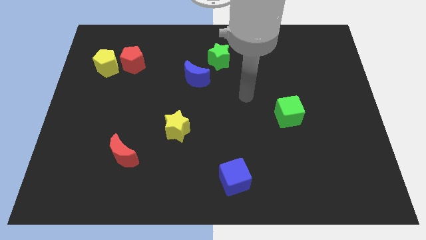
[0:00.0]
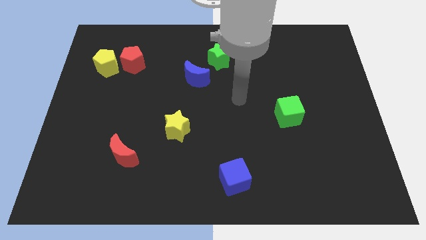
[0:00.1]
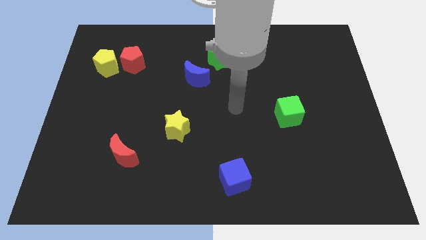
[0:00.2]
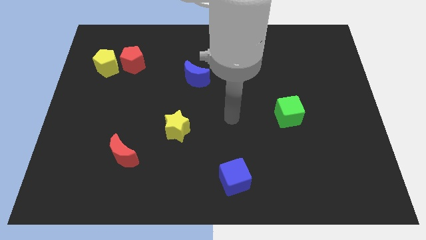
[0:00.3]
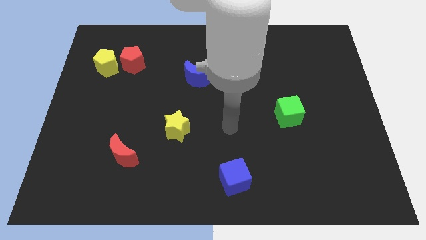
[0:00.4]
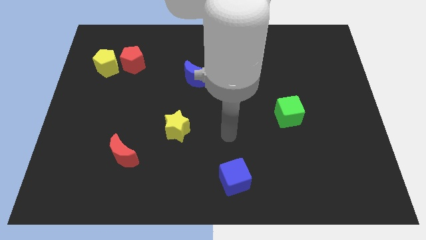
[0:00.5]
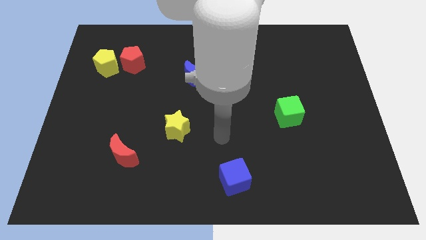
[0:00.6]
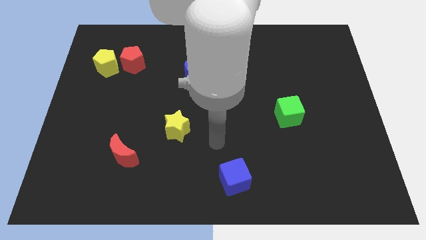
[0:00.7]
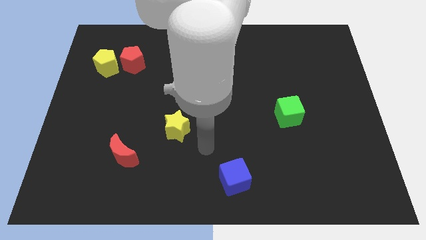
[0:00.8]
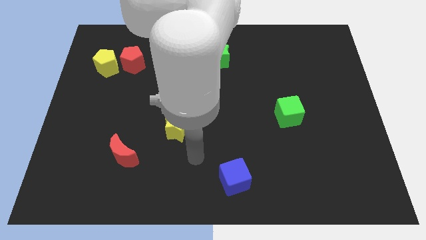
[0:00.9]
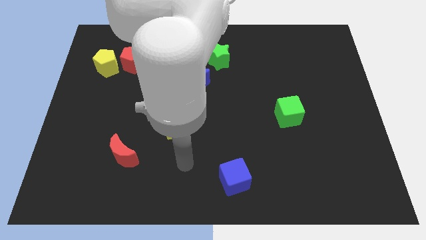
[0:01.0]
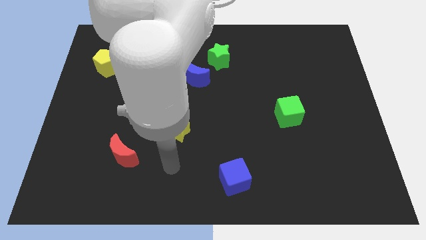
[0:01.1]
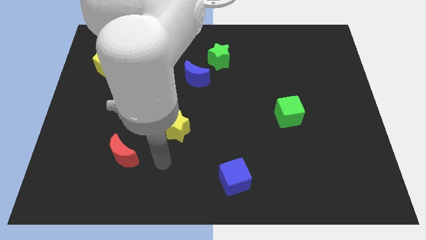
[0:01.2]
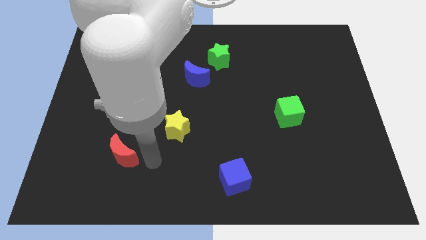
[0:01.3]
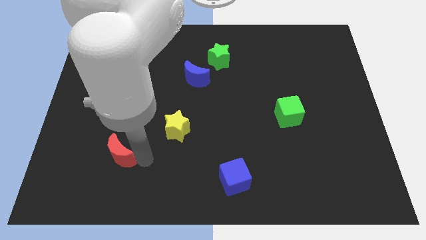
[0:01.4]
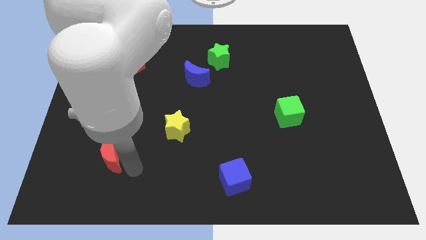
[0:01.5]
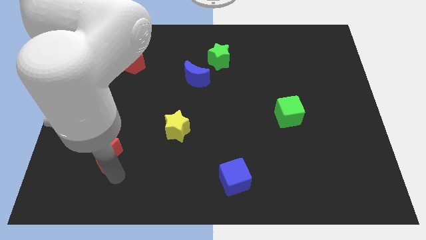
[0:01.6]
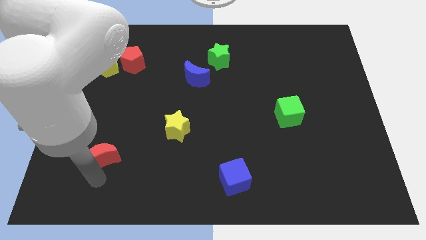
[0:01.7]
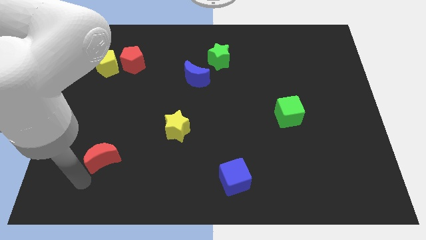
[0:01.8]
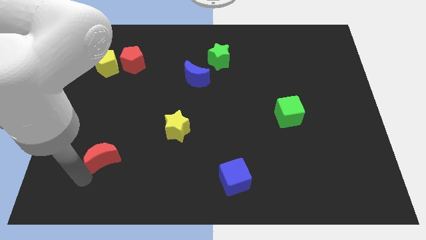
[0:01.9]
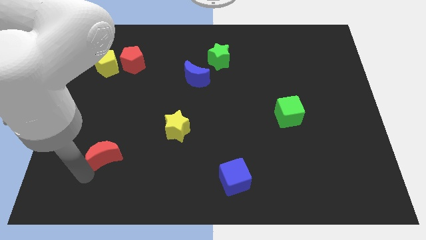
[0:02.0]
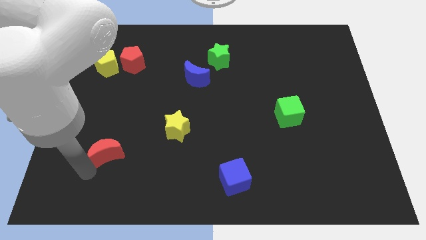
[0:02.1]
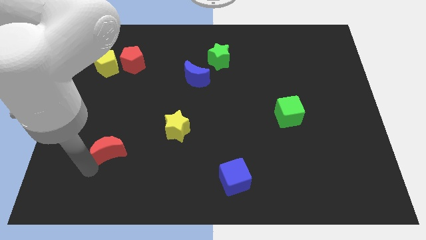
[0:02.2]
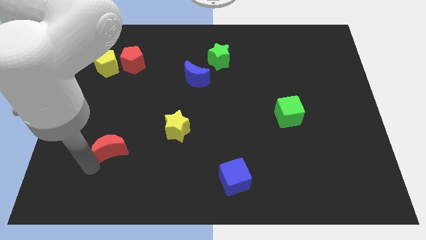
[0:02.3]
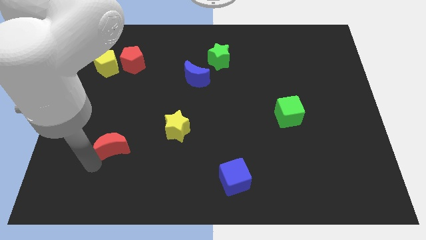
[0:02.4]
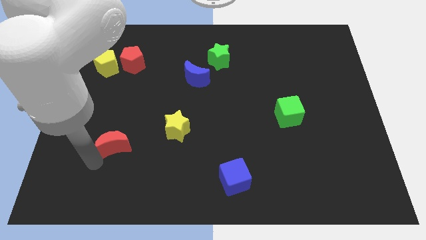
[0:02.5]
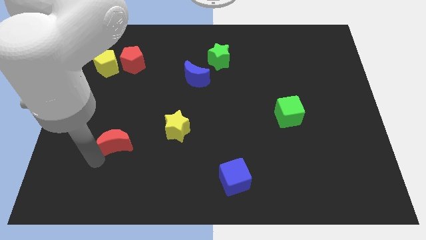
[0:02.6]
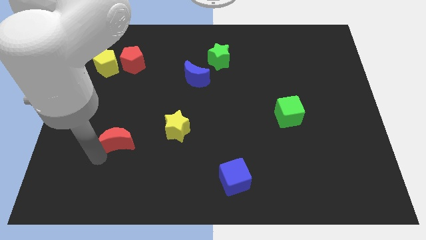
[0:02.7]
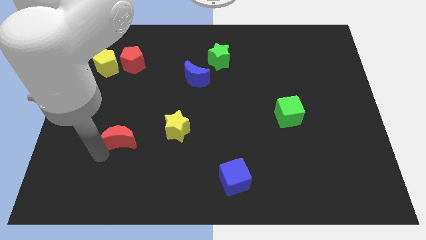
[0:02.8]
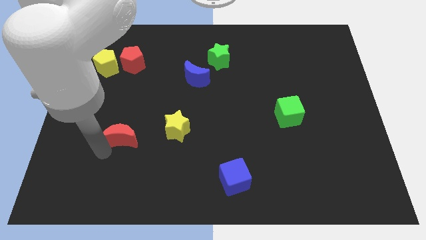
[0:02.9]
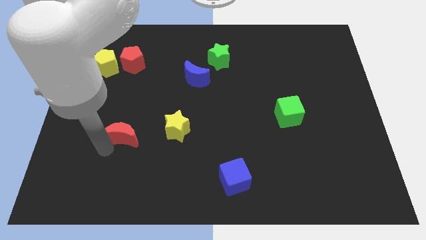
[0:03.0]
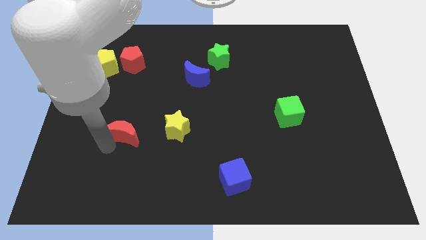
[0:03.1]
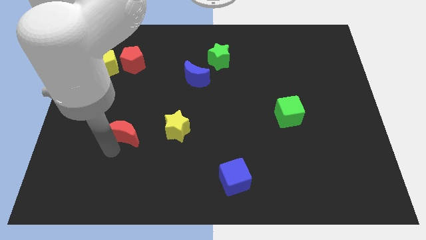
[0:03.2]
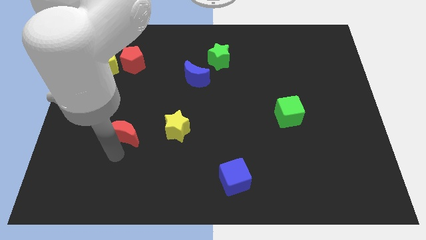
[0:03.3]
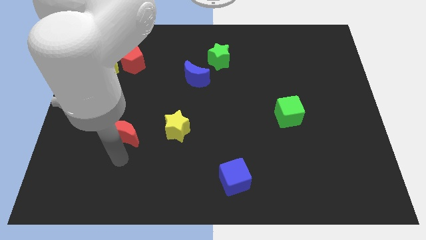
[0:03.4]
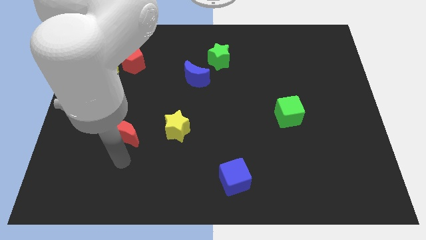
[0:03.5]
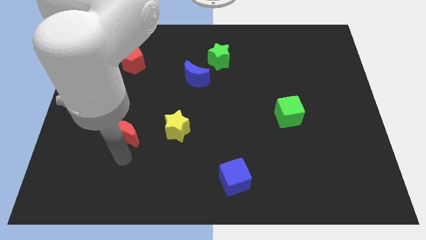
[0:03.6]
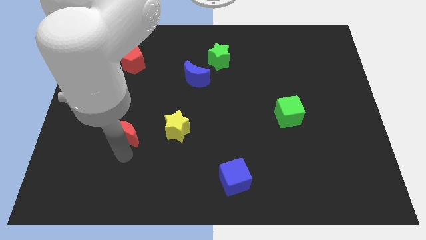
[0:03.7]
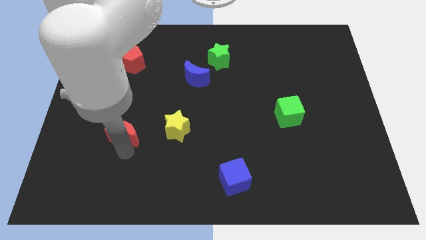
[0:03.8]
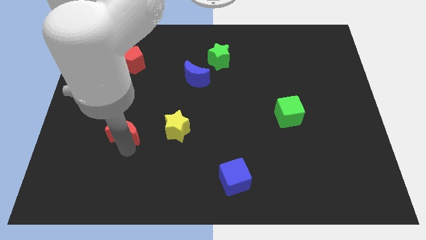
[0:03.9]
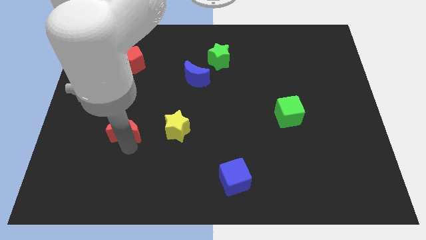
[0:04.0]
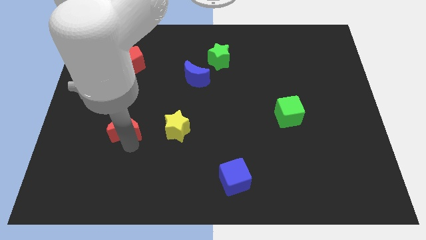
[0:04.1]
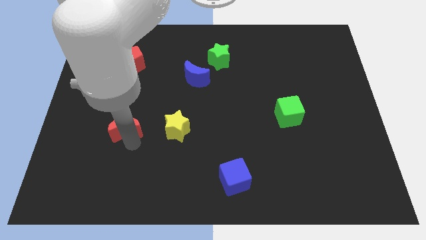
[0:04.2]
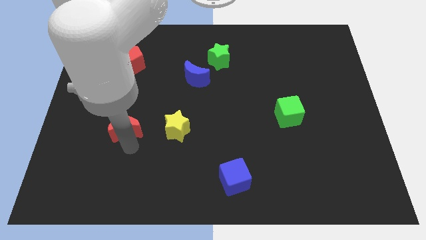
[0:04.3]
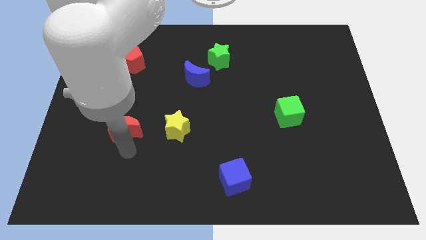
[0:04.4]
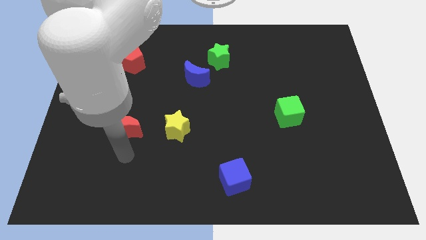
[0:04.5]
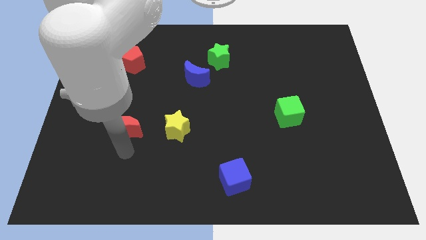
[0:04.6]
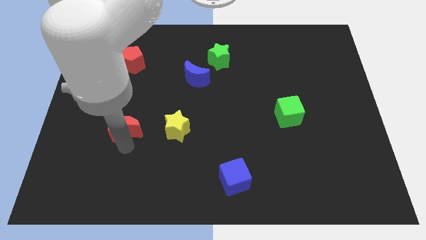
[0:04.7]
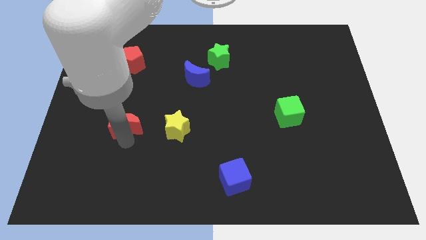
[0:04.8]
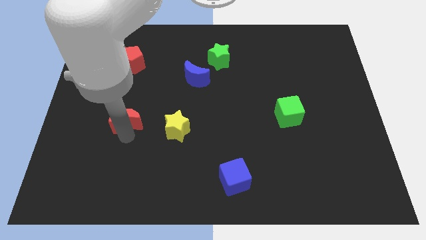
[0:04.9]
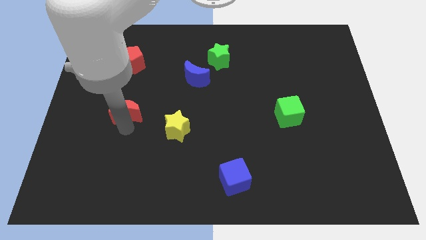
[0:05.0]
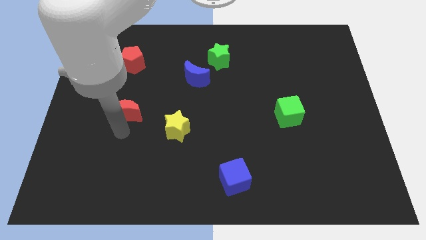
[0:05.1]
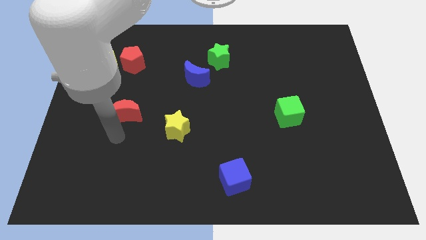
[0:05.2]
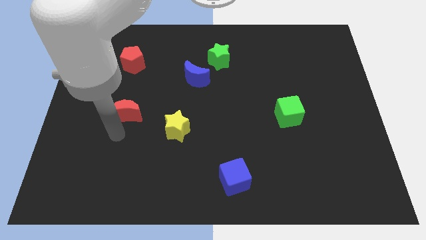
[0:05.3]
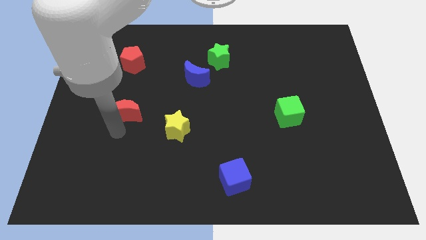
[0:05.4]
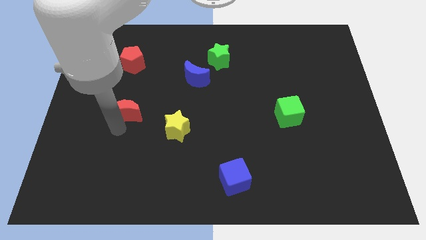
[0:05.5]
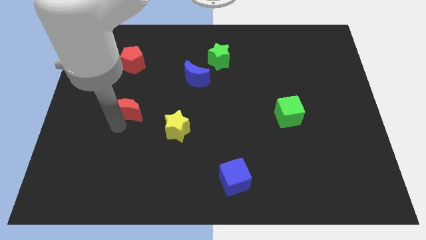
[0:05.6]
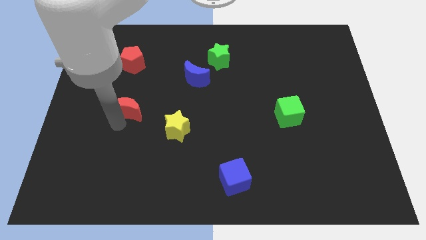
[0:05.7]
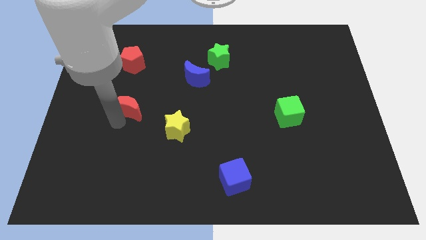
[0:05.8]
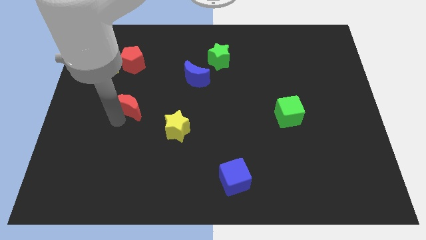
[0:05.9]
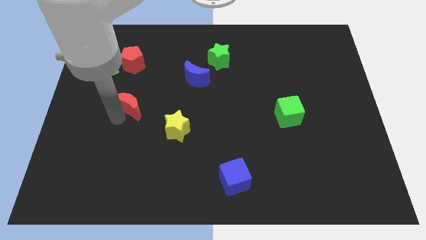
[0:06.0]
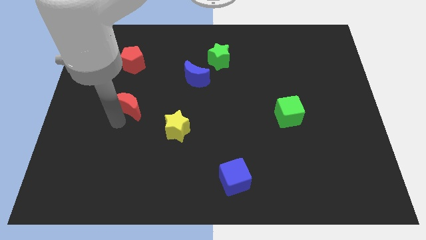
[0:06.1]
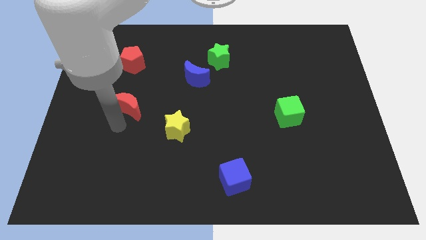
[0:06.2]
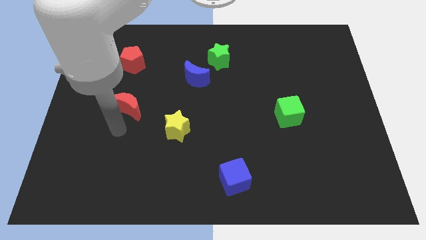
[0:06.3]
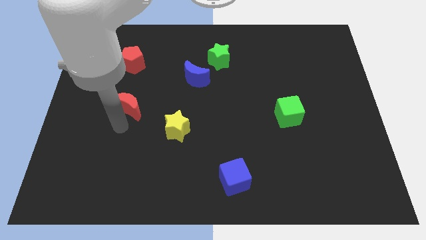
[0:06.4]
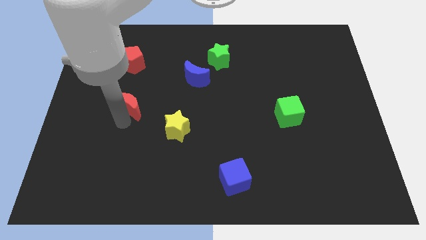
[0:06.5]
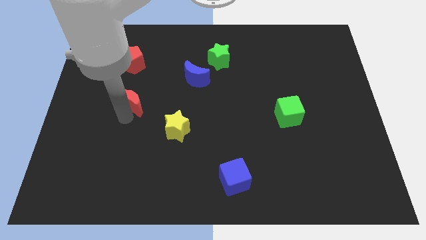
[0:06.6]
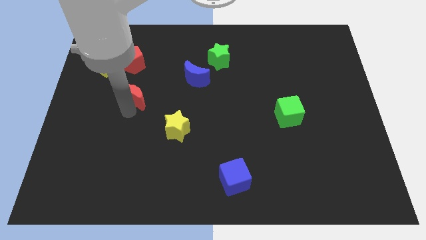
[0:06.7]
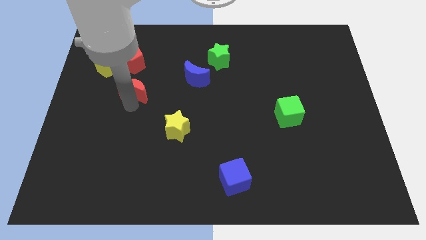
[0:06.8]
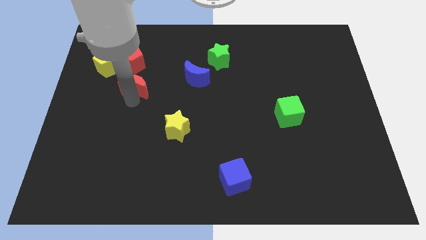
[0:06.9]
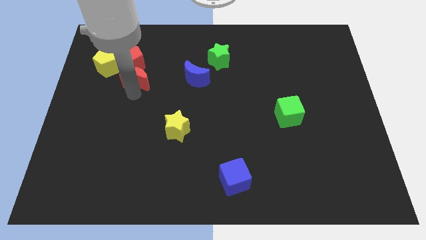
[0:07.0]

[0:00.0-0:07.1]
put the red moon right of the yellow pentagon
